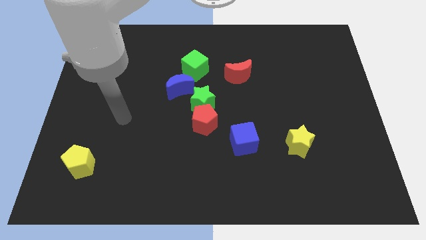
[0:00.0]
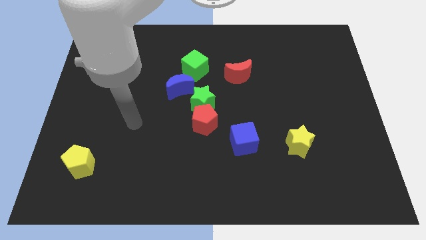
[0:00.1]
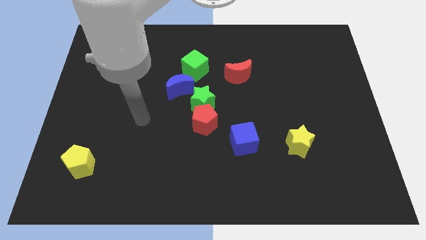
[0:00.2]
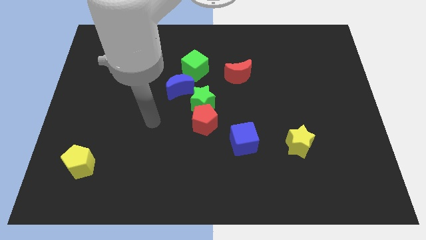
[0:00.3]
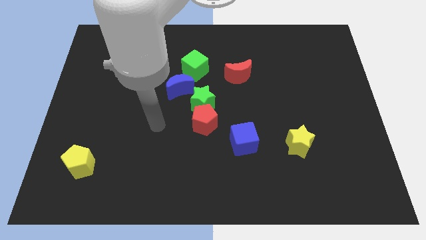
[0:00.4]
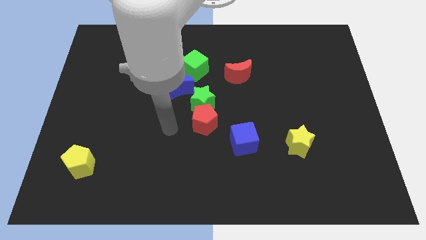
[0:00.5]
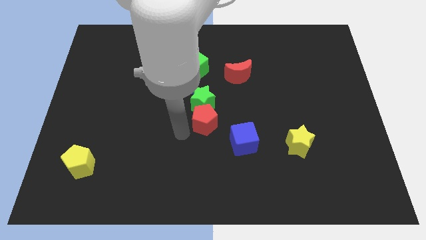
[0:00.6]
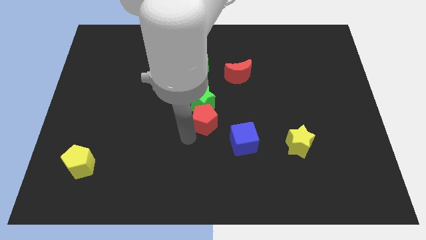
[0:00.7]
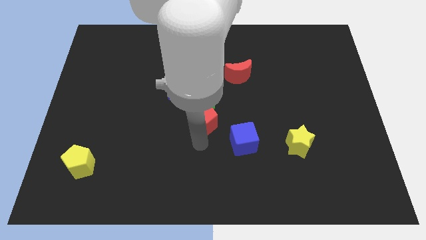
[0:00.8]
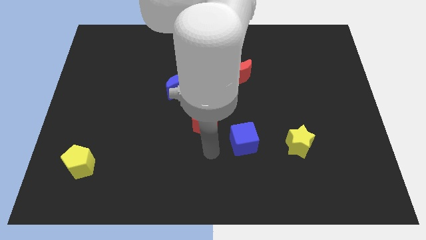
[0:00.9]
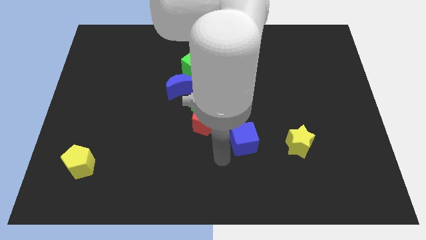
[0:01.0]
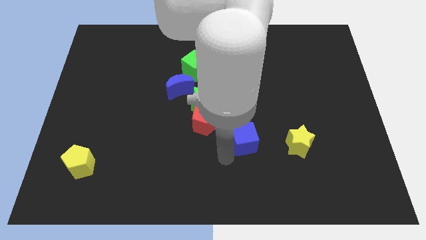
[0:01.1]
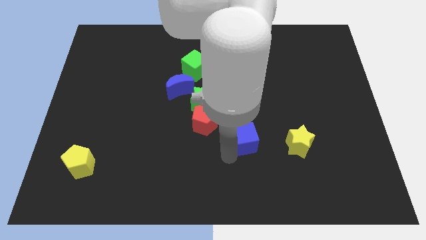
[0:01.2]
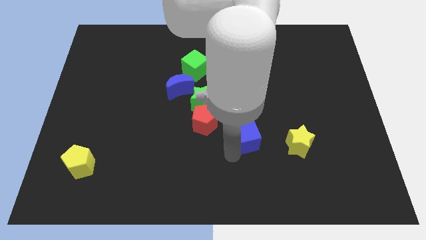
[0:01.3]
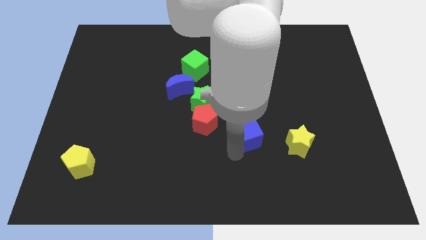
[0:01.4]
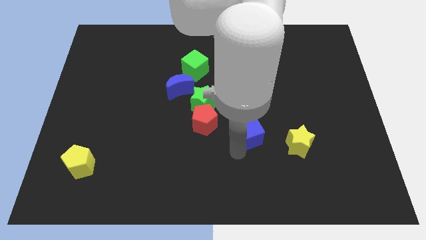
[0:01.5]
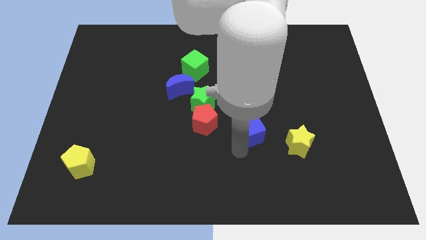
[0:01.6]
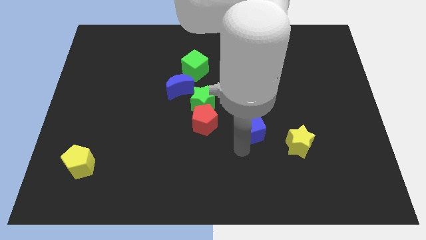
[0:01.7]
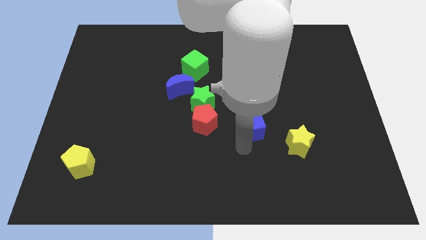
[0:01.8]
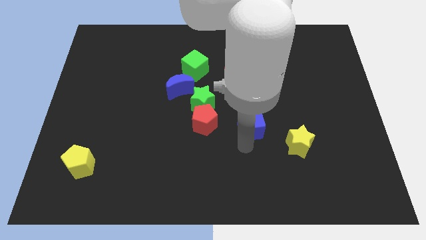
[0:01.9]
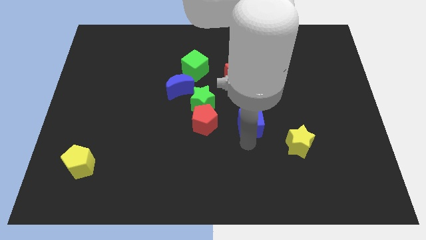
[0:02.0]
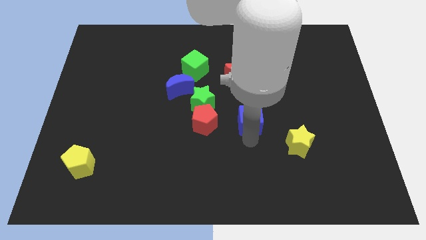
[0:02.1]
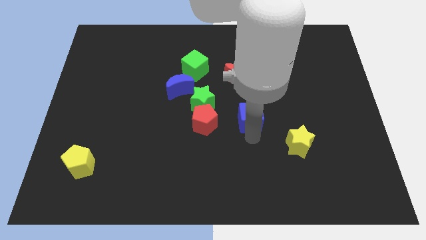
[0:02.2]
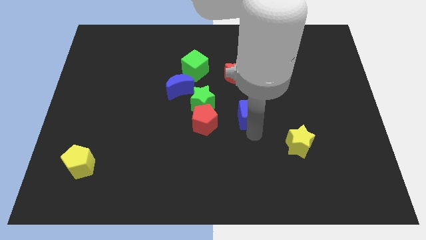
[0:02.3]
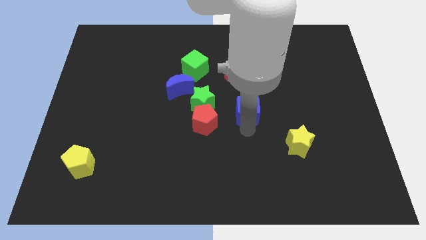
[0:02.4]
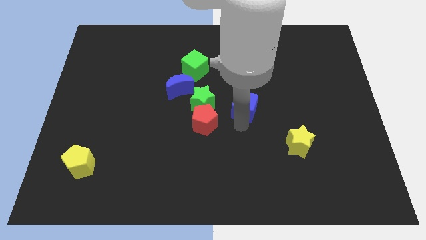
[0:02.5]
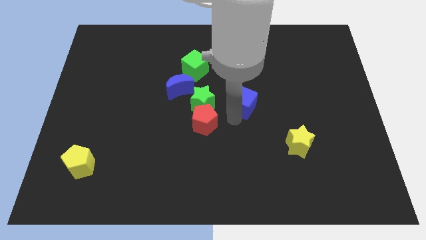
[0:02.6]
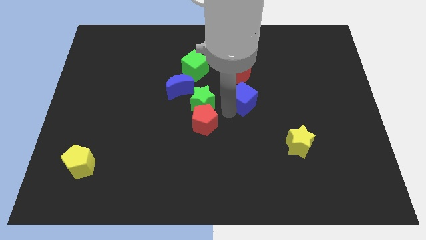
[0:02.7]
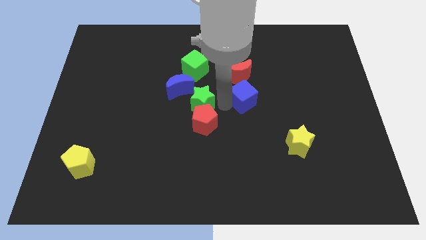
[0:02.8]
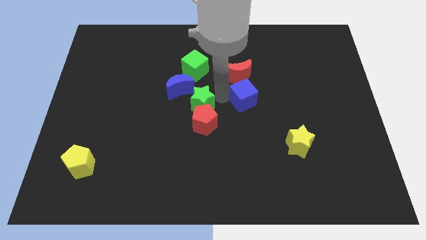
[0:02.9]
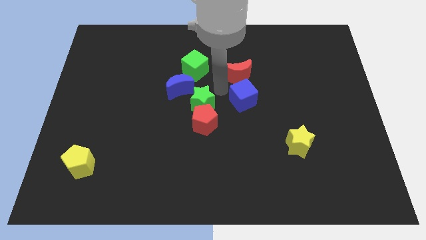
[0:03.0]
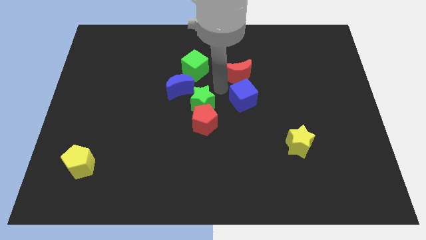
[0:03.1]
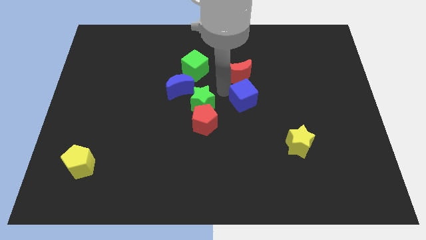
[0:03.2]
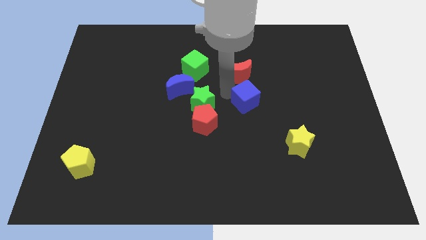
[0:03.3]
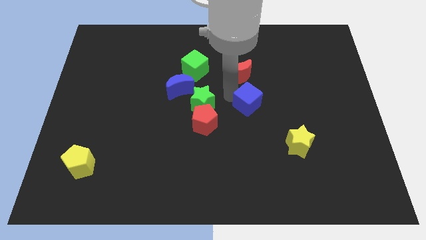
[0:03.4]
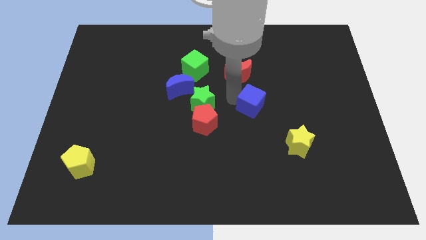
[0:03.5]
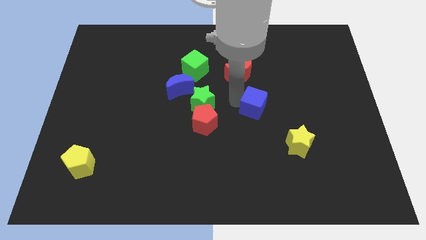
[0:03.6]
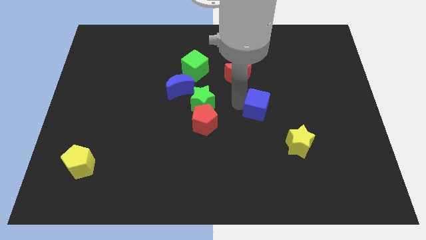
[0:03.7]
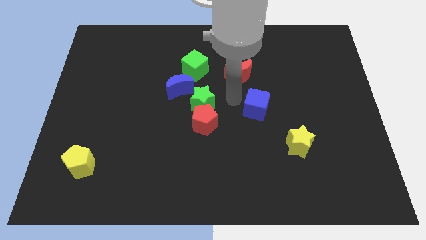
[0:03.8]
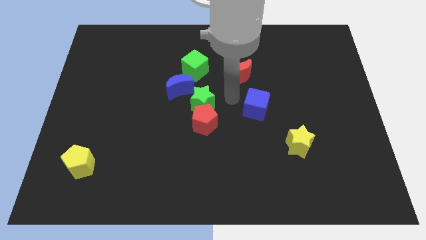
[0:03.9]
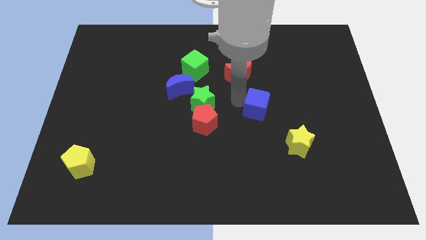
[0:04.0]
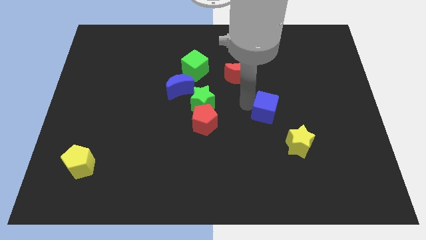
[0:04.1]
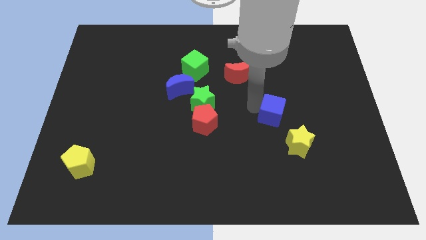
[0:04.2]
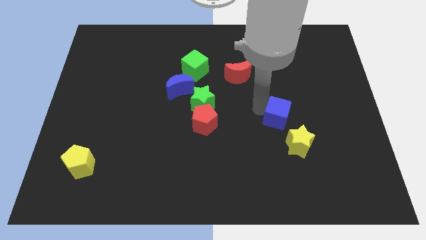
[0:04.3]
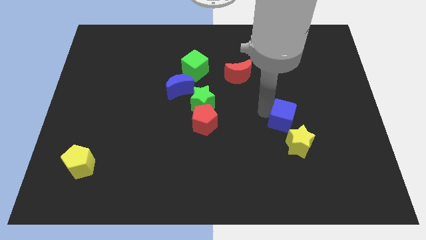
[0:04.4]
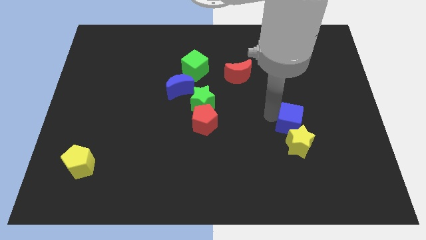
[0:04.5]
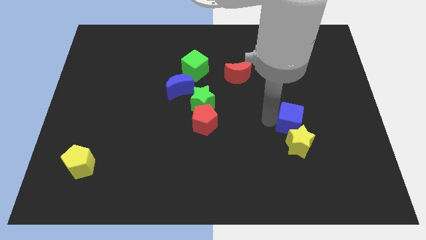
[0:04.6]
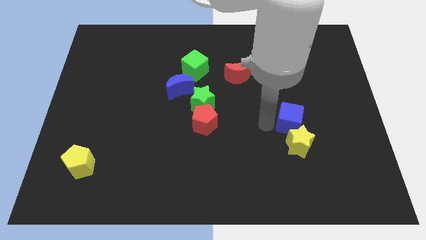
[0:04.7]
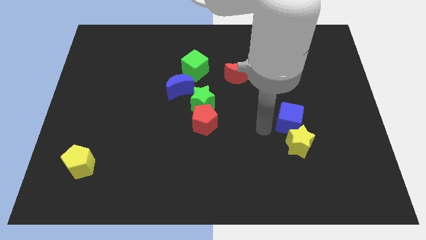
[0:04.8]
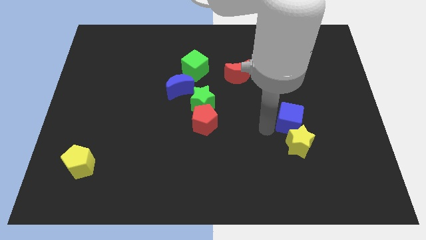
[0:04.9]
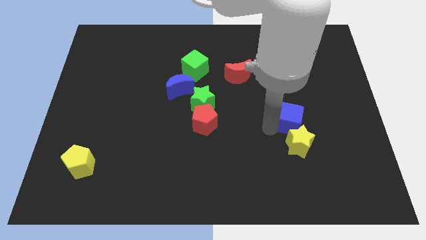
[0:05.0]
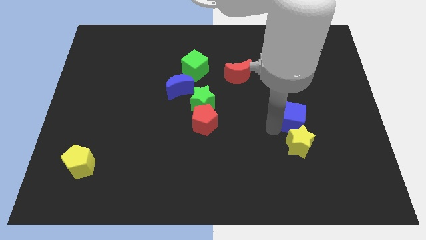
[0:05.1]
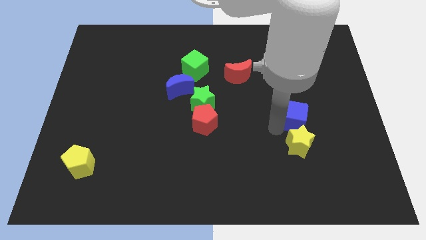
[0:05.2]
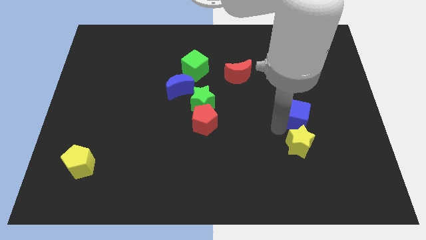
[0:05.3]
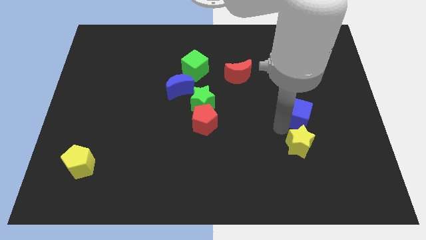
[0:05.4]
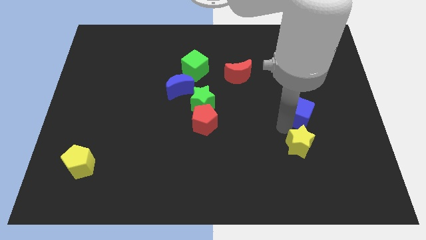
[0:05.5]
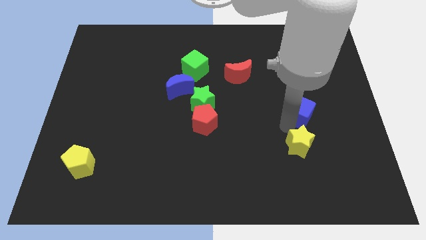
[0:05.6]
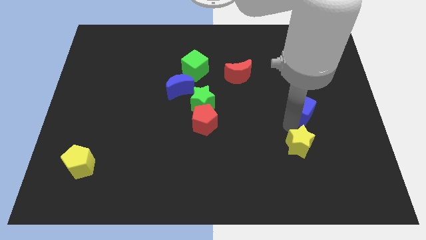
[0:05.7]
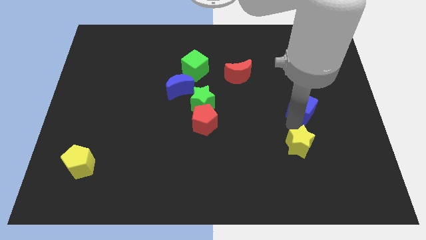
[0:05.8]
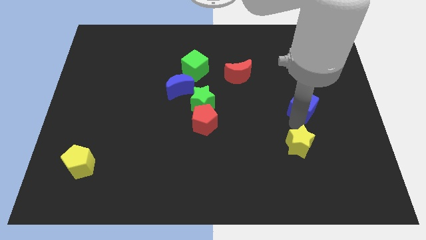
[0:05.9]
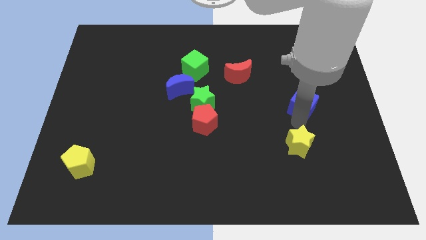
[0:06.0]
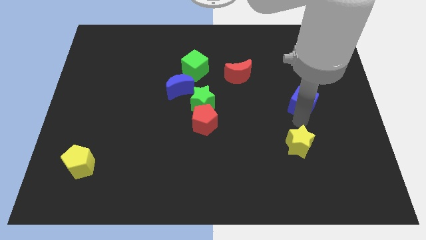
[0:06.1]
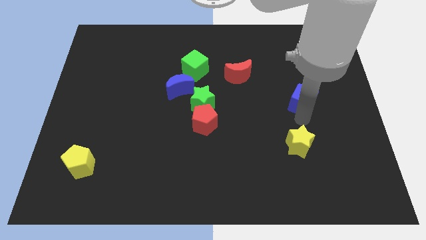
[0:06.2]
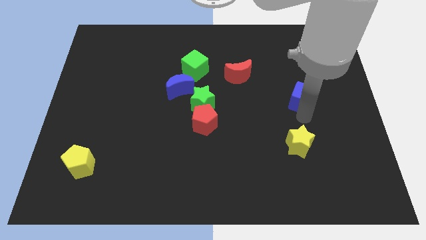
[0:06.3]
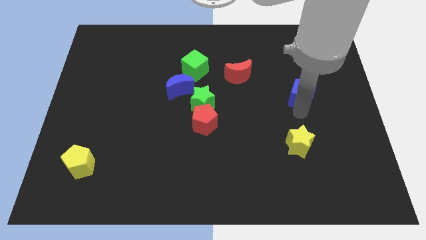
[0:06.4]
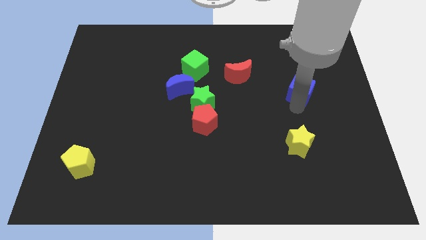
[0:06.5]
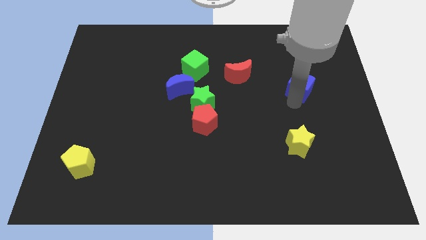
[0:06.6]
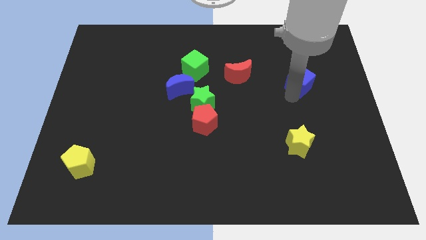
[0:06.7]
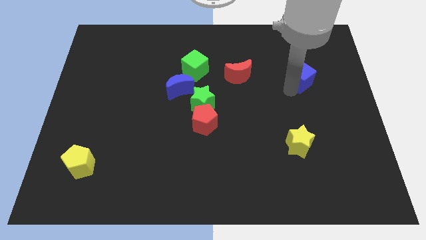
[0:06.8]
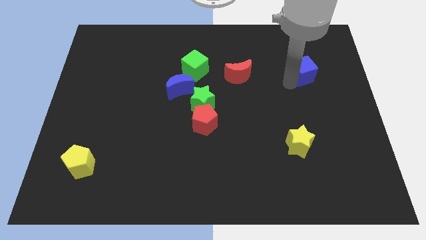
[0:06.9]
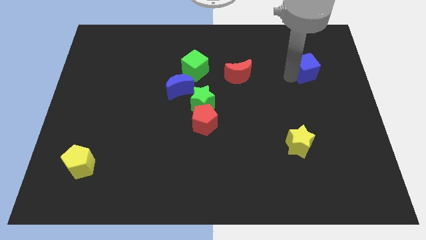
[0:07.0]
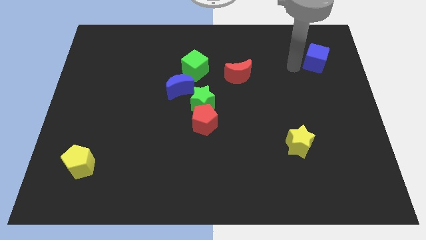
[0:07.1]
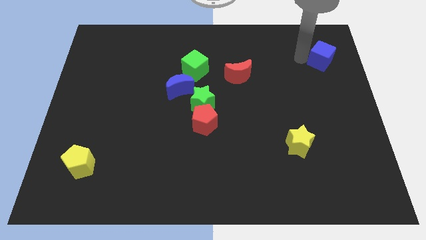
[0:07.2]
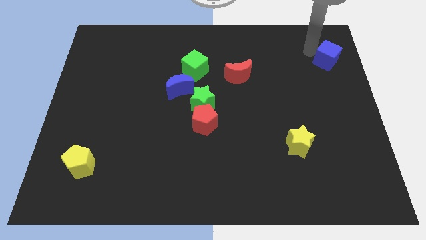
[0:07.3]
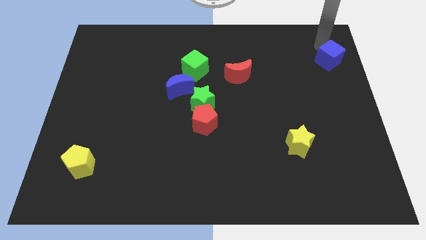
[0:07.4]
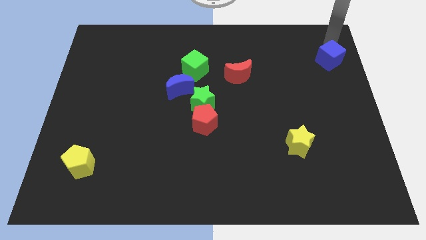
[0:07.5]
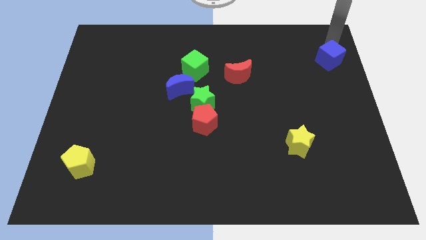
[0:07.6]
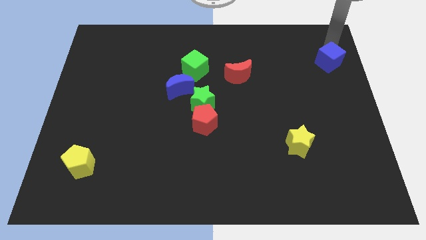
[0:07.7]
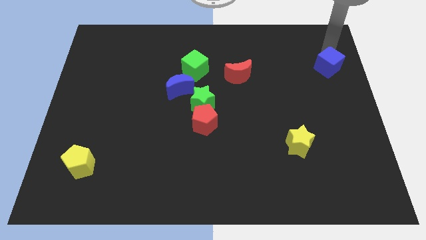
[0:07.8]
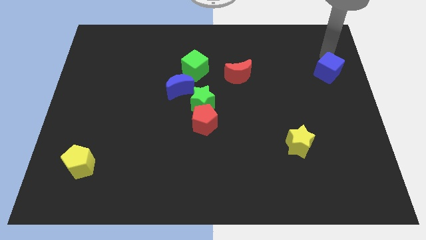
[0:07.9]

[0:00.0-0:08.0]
move the blue cube to the right side
